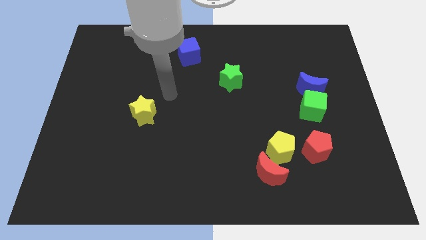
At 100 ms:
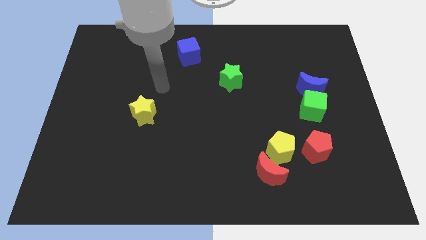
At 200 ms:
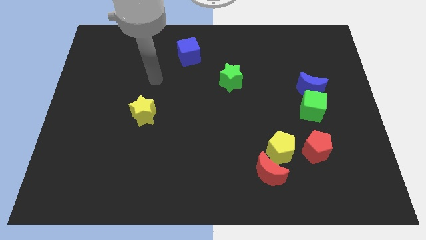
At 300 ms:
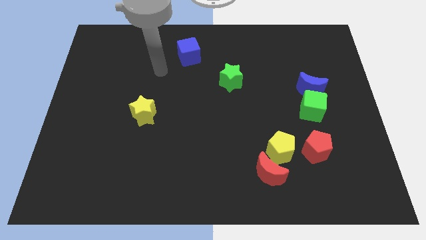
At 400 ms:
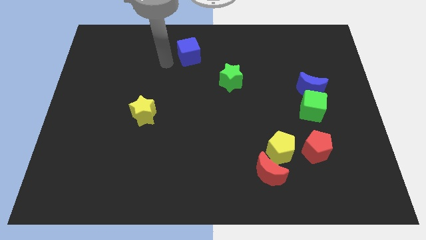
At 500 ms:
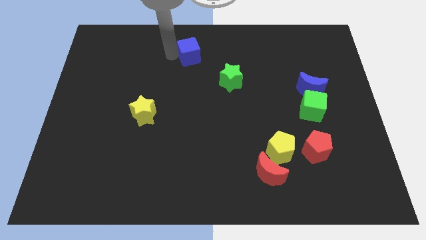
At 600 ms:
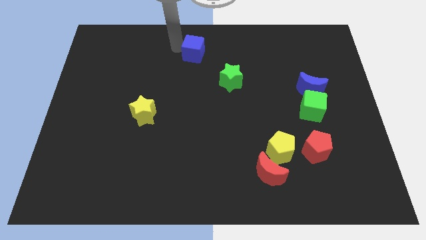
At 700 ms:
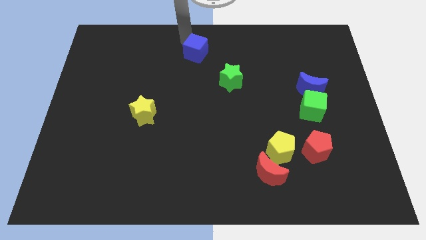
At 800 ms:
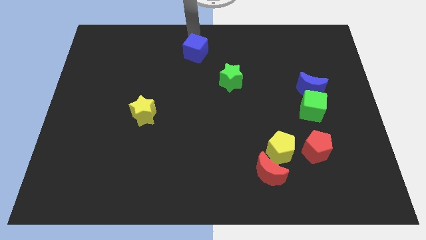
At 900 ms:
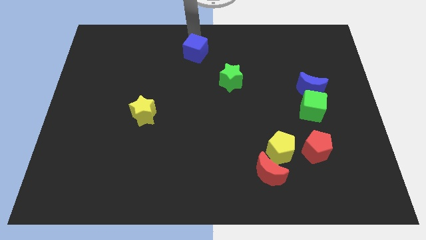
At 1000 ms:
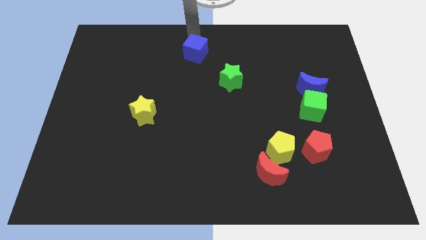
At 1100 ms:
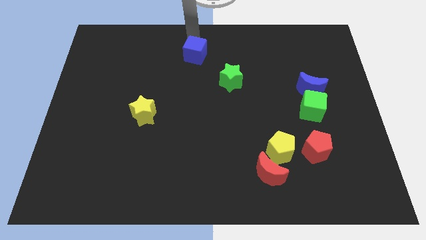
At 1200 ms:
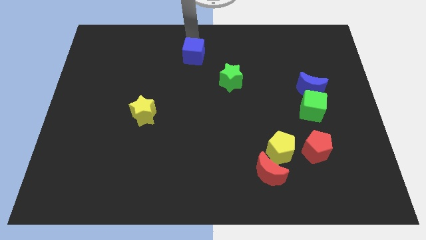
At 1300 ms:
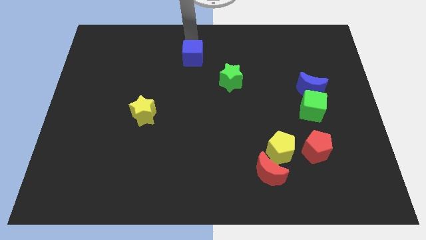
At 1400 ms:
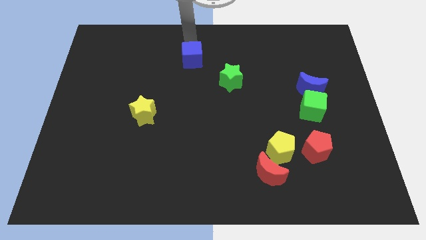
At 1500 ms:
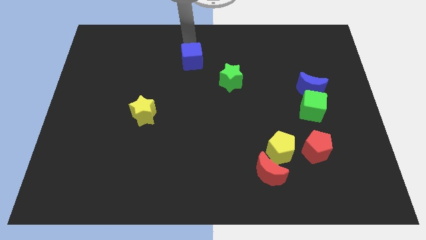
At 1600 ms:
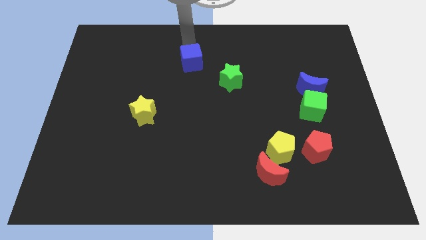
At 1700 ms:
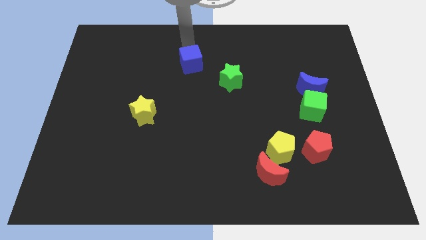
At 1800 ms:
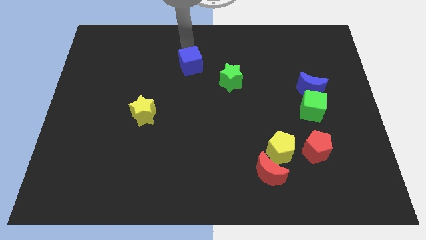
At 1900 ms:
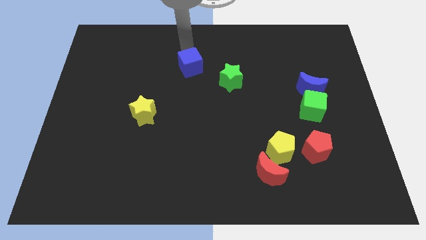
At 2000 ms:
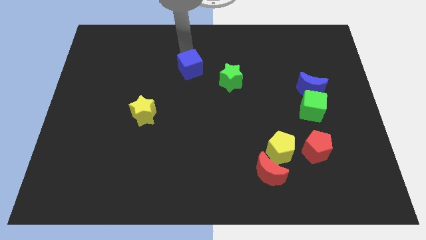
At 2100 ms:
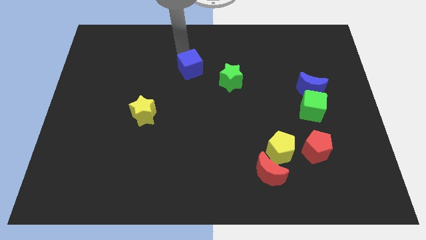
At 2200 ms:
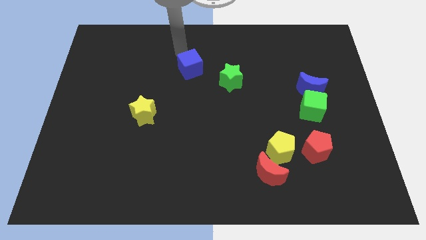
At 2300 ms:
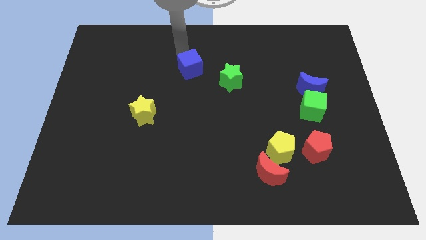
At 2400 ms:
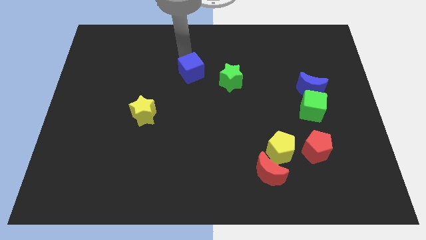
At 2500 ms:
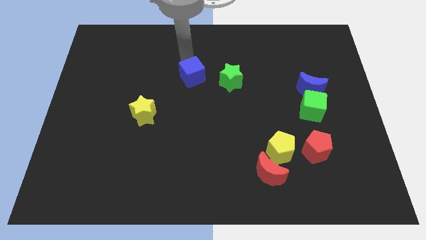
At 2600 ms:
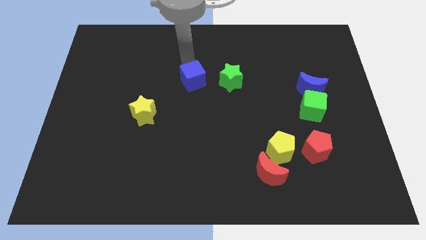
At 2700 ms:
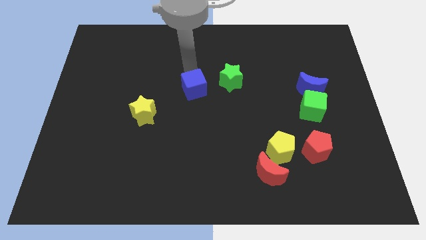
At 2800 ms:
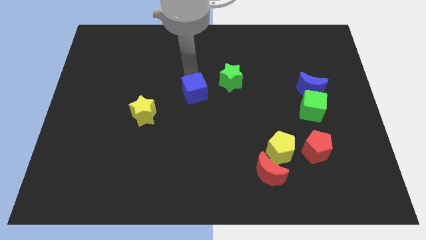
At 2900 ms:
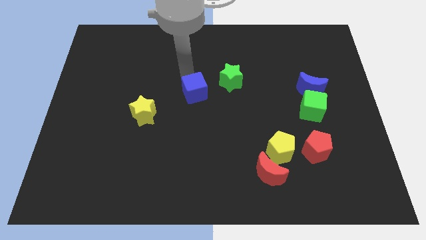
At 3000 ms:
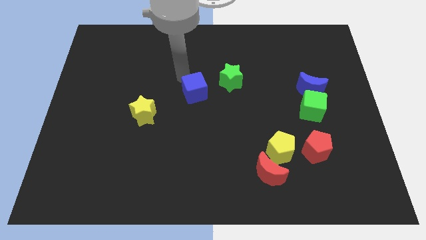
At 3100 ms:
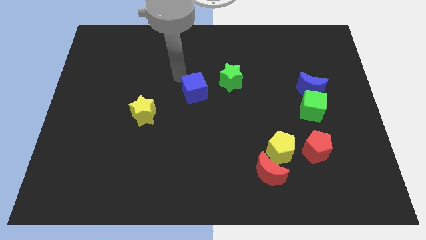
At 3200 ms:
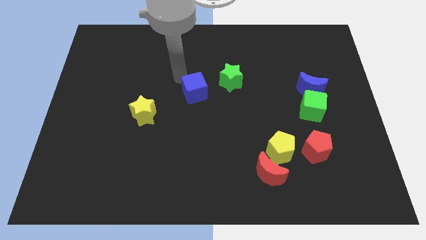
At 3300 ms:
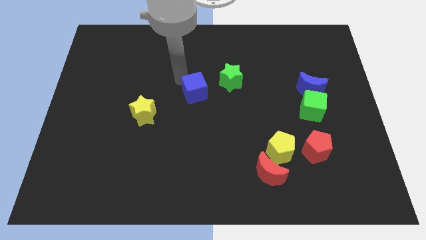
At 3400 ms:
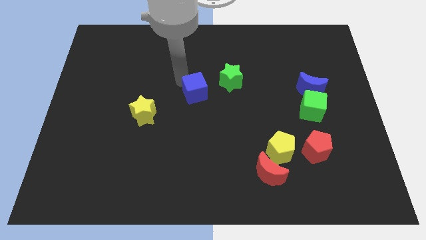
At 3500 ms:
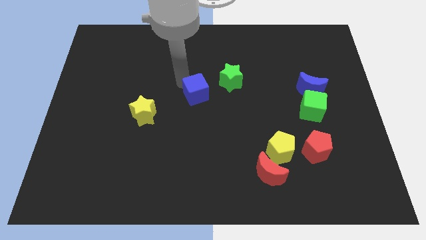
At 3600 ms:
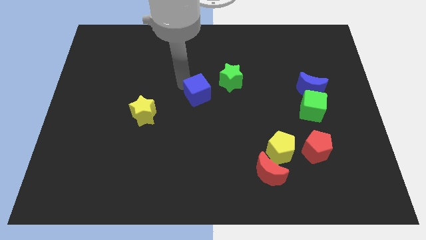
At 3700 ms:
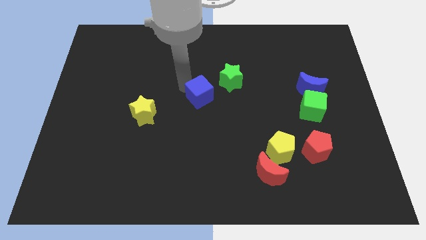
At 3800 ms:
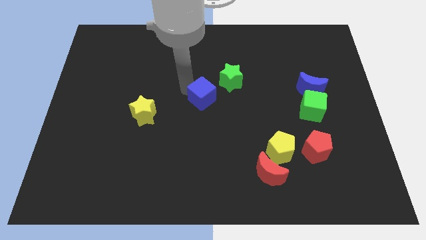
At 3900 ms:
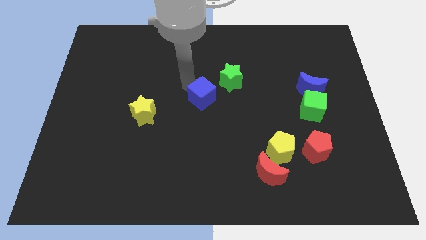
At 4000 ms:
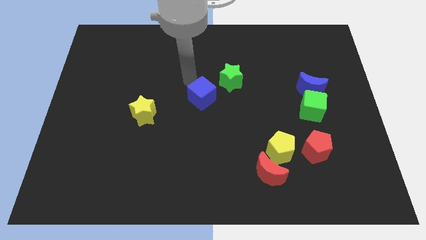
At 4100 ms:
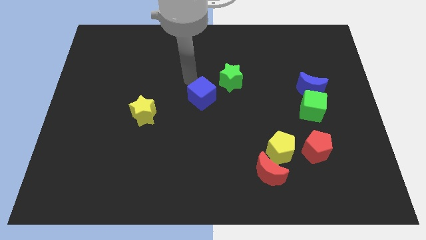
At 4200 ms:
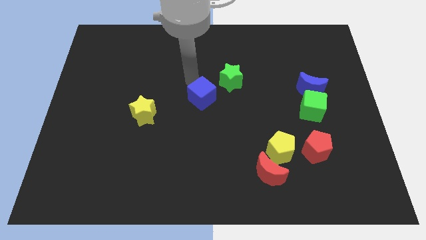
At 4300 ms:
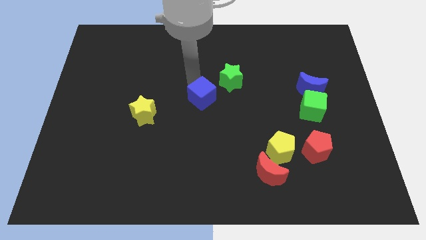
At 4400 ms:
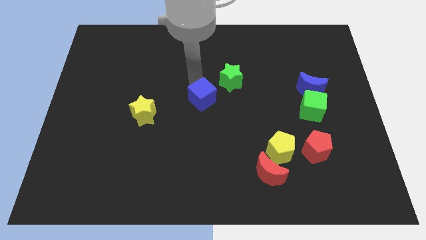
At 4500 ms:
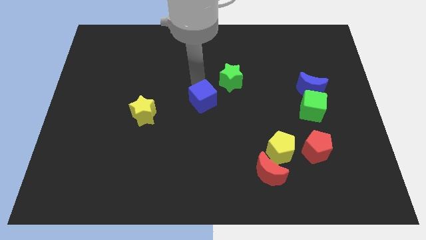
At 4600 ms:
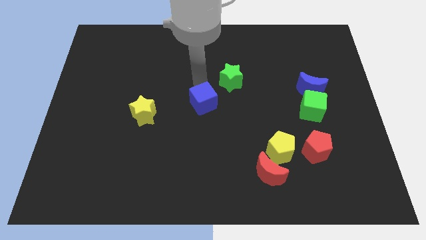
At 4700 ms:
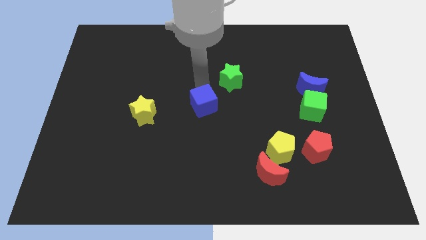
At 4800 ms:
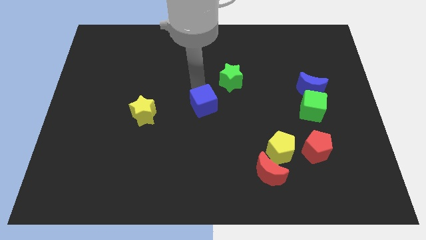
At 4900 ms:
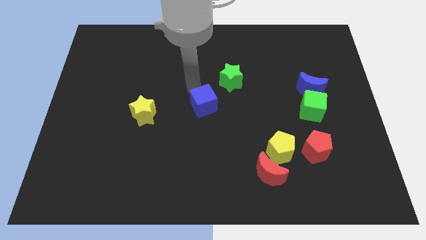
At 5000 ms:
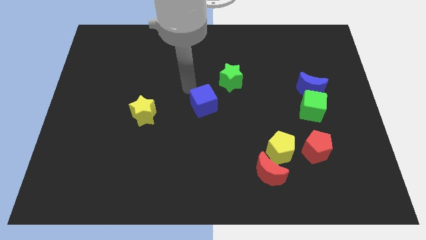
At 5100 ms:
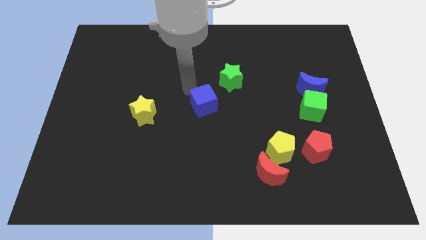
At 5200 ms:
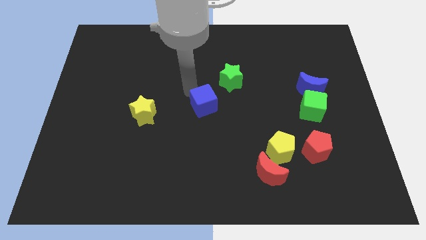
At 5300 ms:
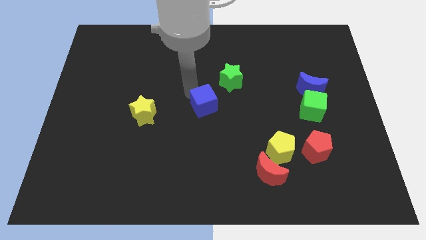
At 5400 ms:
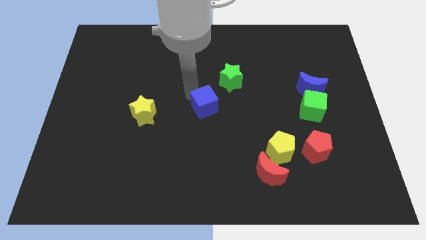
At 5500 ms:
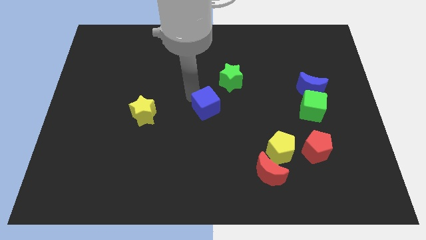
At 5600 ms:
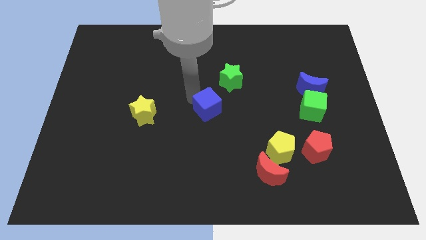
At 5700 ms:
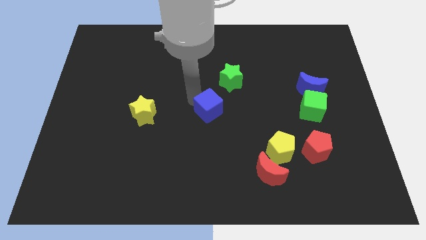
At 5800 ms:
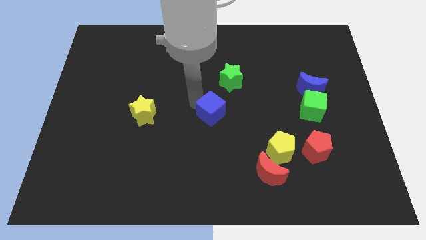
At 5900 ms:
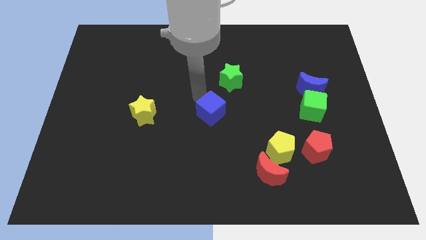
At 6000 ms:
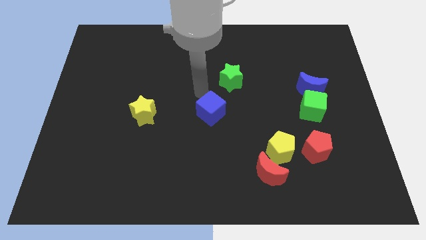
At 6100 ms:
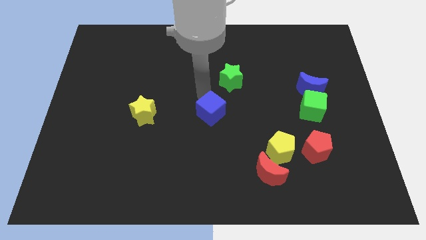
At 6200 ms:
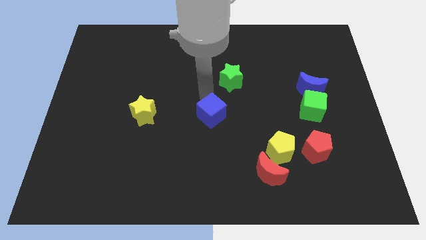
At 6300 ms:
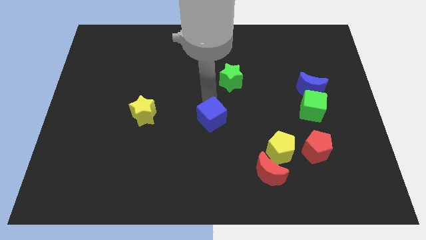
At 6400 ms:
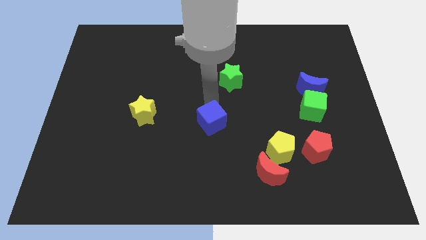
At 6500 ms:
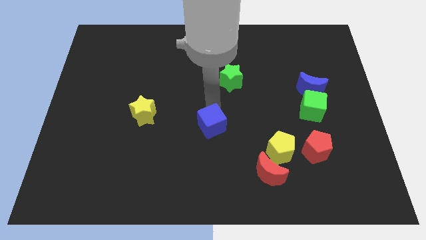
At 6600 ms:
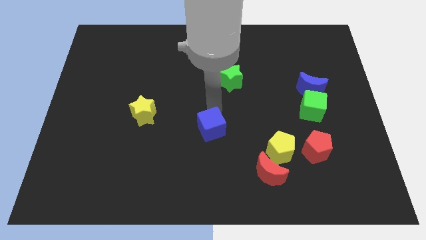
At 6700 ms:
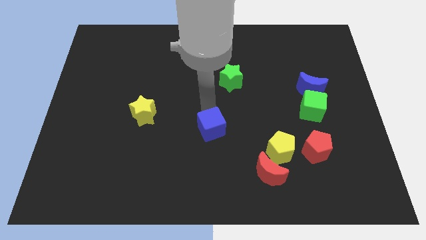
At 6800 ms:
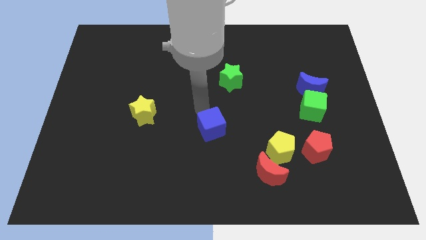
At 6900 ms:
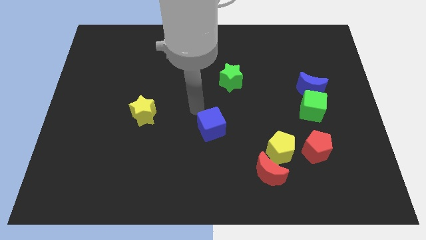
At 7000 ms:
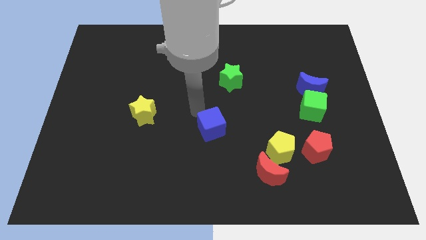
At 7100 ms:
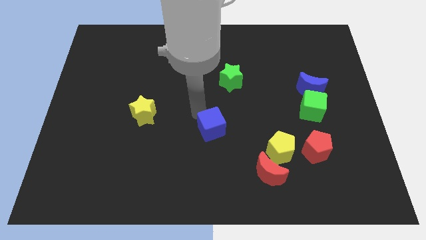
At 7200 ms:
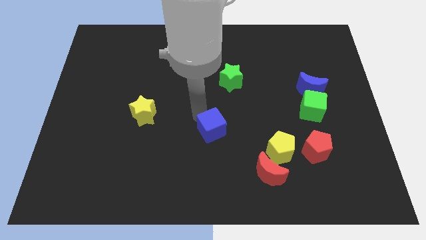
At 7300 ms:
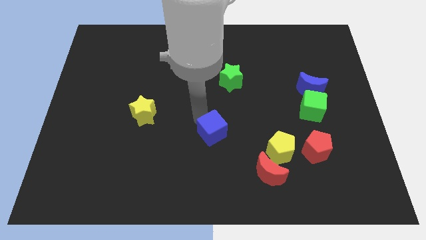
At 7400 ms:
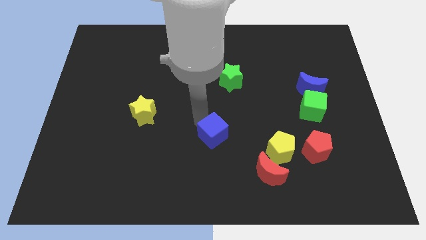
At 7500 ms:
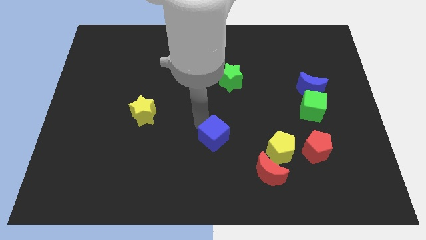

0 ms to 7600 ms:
slide the blue cube just left of the yellow pentagon

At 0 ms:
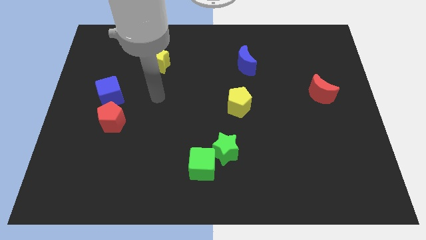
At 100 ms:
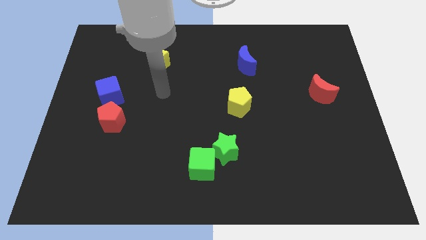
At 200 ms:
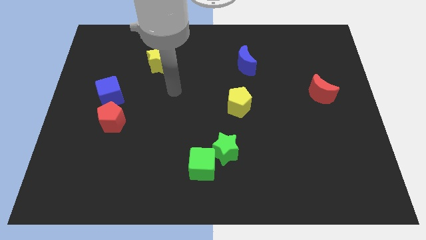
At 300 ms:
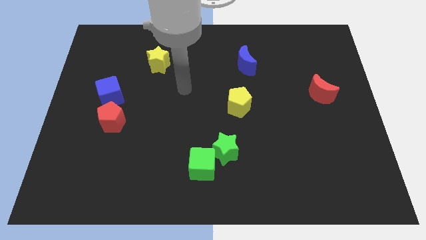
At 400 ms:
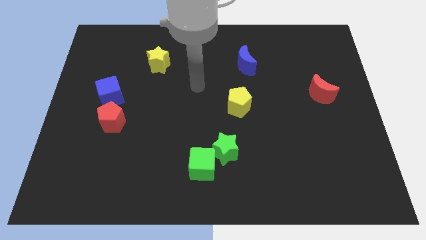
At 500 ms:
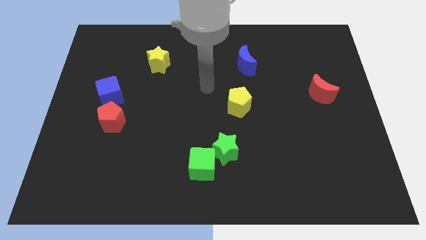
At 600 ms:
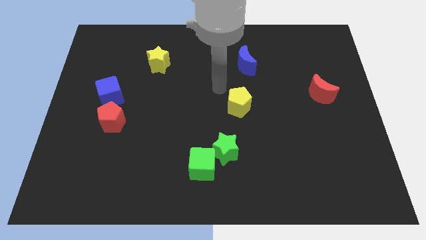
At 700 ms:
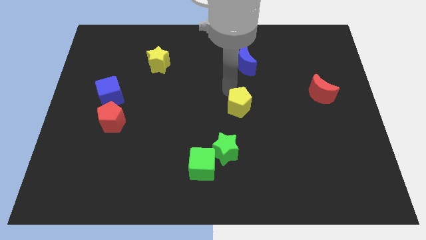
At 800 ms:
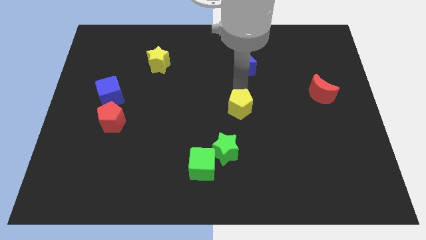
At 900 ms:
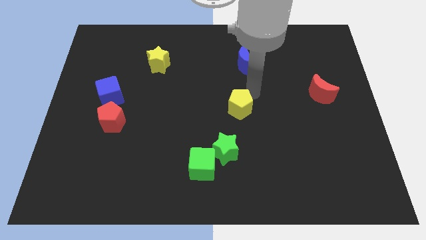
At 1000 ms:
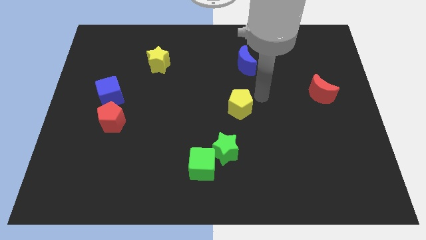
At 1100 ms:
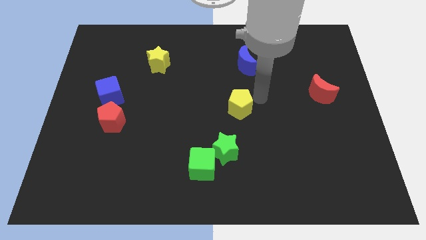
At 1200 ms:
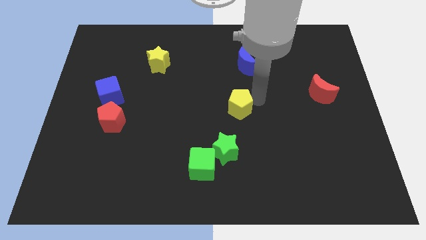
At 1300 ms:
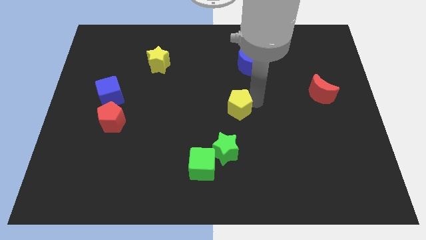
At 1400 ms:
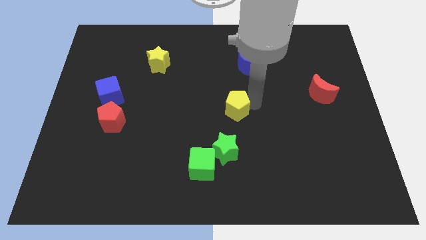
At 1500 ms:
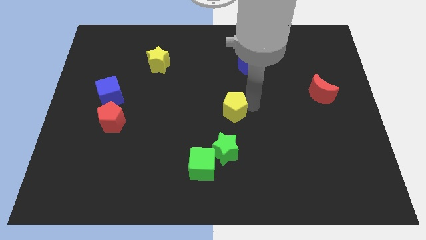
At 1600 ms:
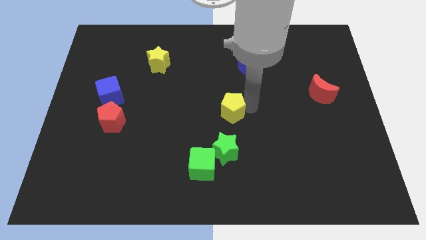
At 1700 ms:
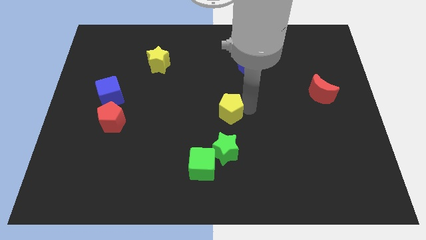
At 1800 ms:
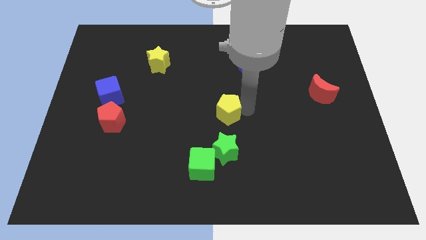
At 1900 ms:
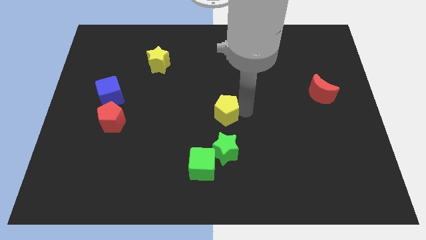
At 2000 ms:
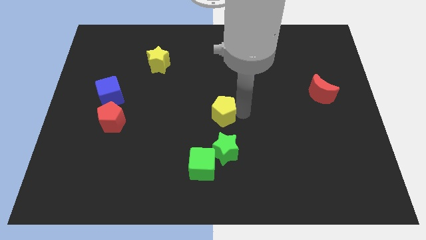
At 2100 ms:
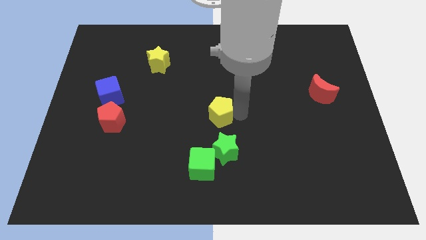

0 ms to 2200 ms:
move the yellow pentagon to the top side of the green cube
